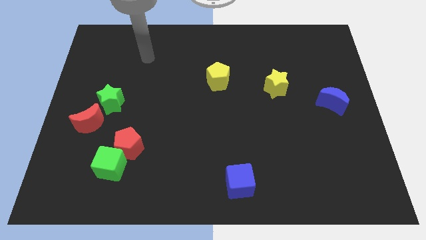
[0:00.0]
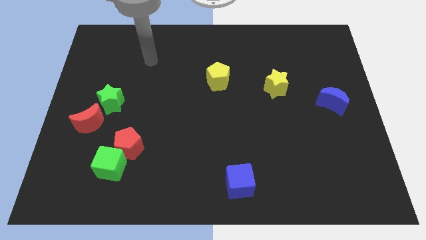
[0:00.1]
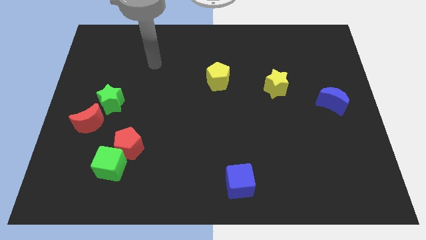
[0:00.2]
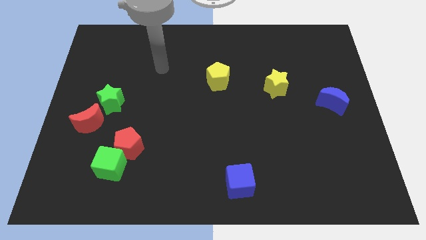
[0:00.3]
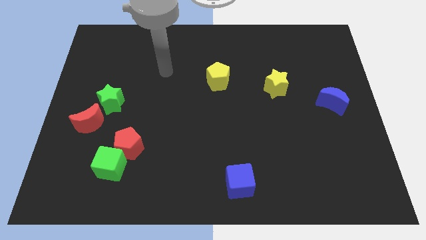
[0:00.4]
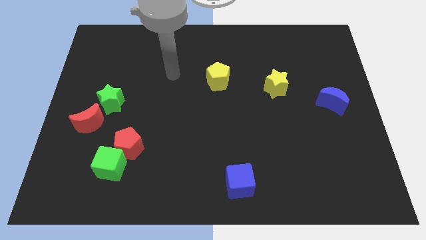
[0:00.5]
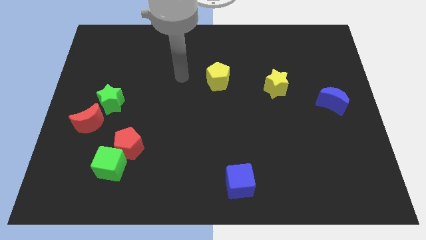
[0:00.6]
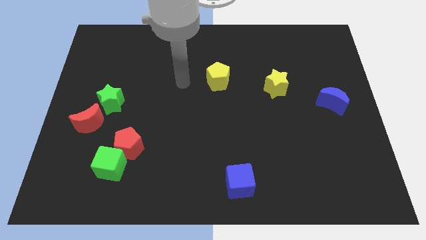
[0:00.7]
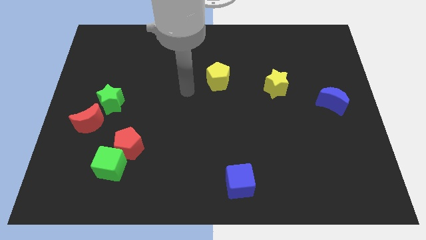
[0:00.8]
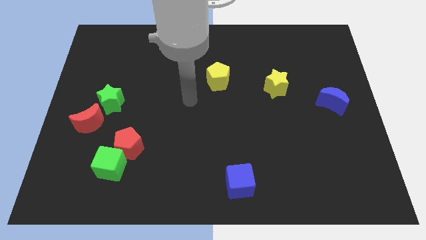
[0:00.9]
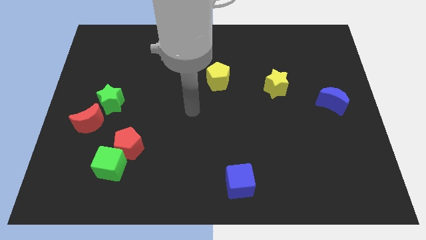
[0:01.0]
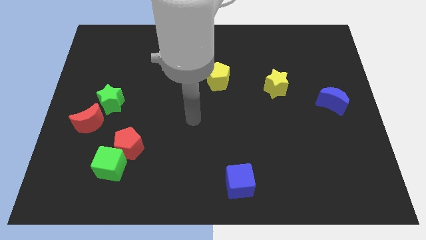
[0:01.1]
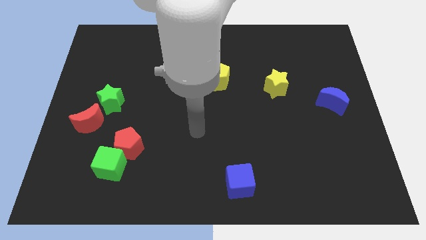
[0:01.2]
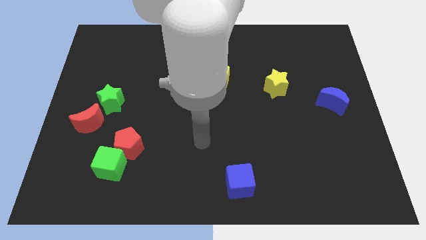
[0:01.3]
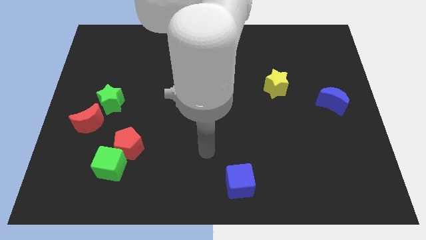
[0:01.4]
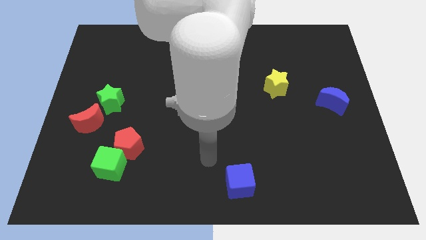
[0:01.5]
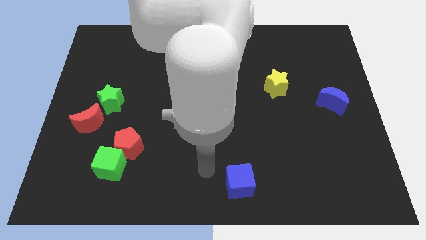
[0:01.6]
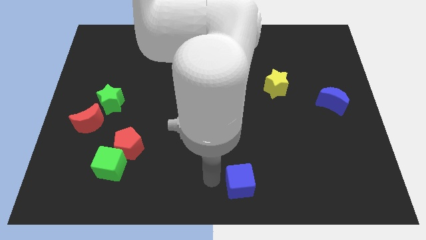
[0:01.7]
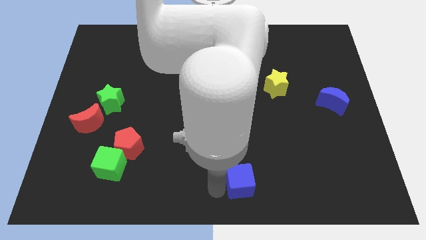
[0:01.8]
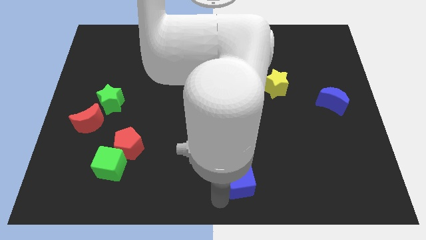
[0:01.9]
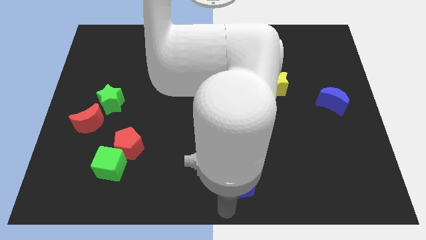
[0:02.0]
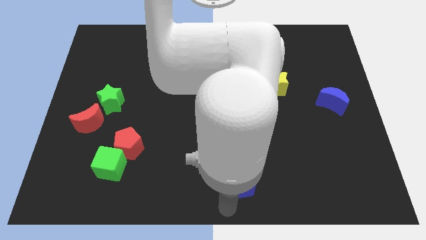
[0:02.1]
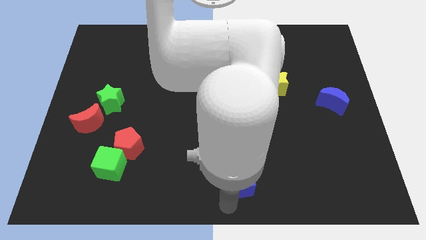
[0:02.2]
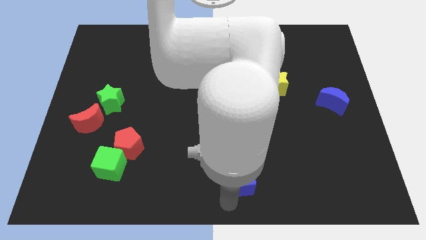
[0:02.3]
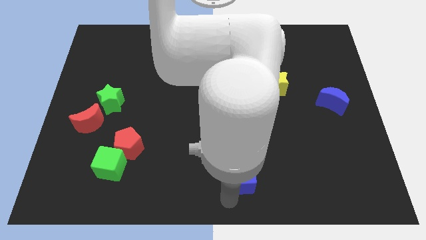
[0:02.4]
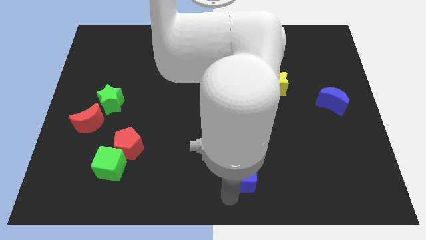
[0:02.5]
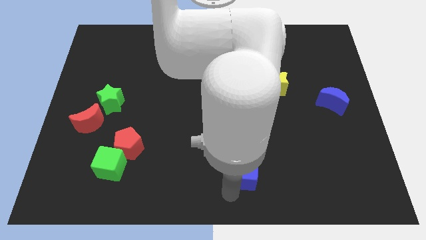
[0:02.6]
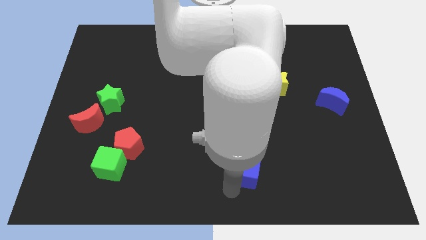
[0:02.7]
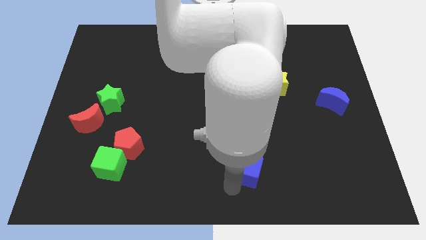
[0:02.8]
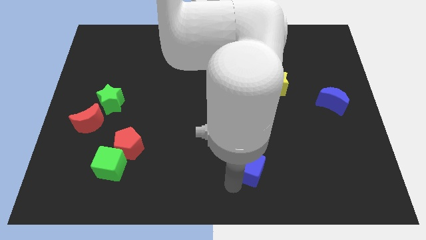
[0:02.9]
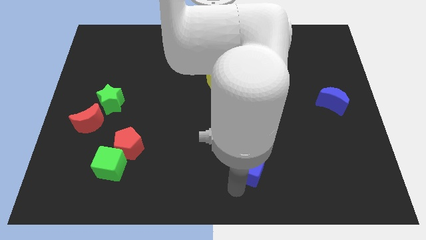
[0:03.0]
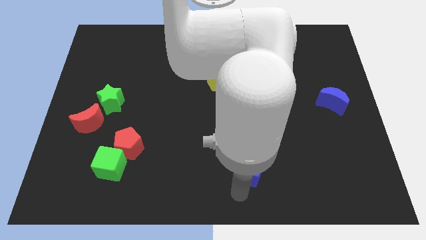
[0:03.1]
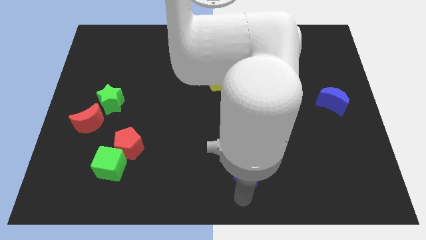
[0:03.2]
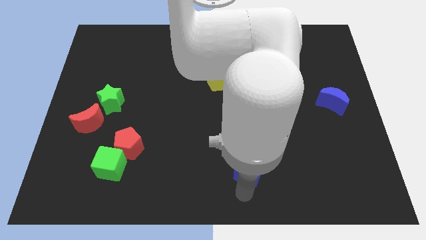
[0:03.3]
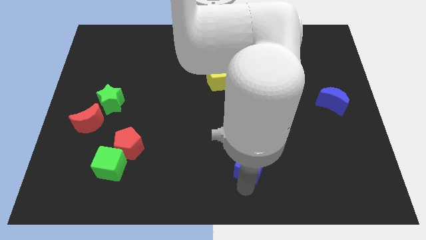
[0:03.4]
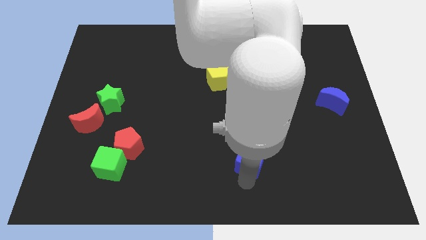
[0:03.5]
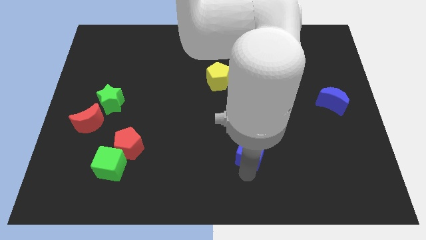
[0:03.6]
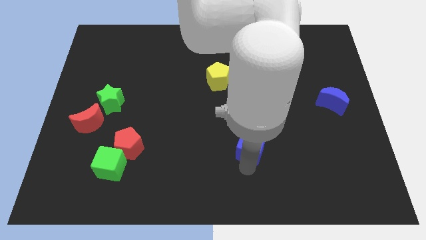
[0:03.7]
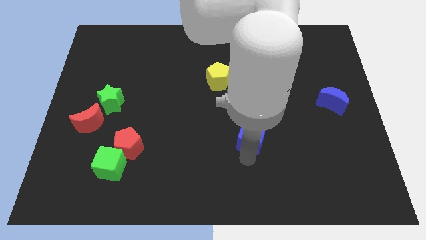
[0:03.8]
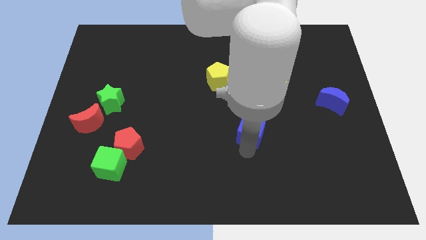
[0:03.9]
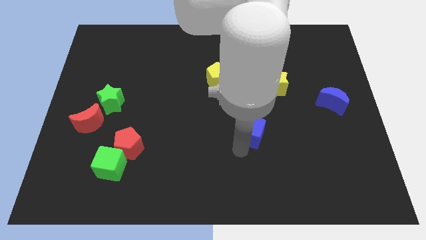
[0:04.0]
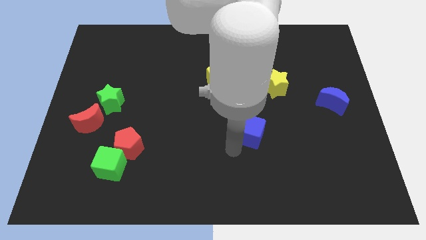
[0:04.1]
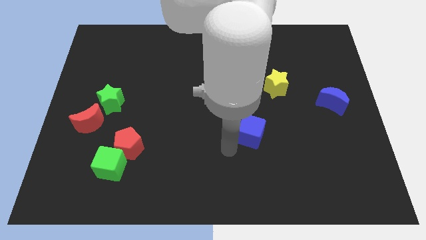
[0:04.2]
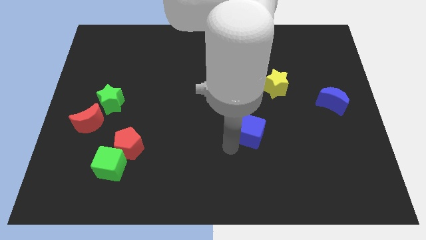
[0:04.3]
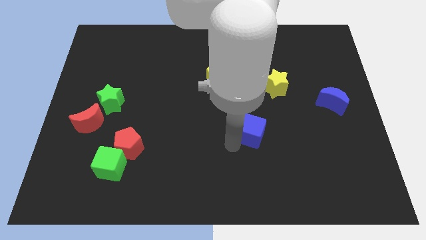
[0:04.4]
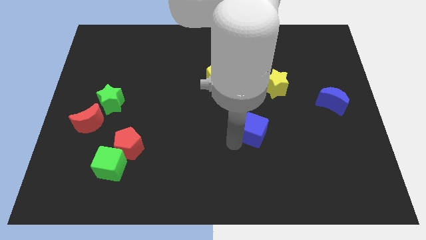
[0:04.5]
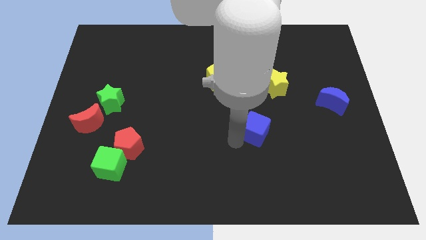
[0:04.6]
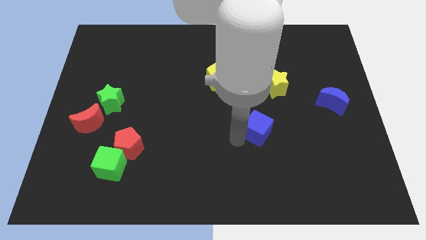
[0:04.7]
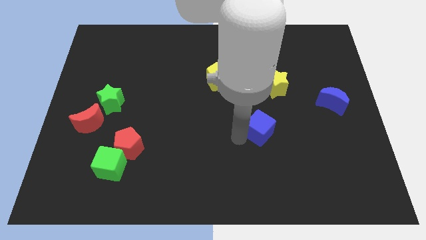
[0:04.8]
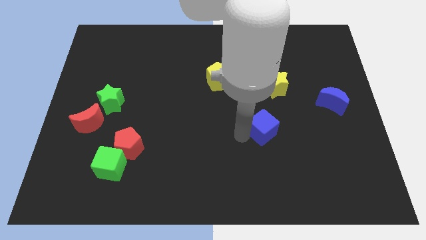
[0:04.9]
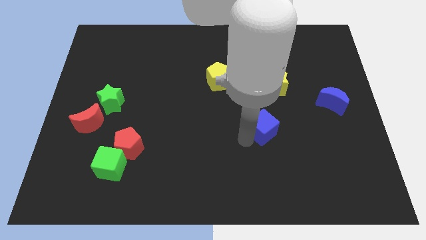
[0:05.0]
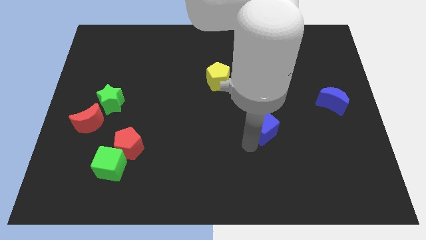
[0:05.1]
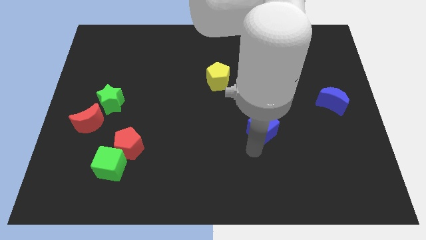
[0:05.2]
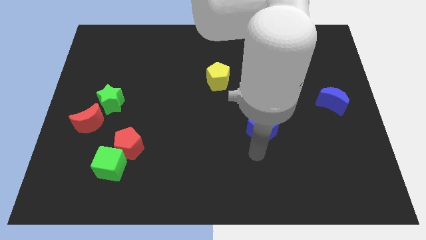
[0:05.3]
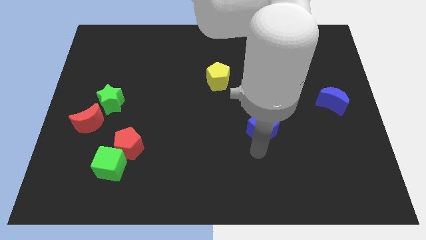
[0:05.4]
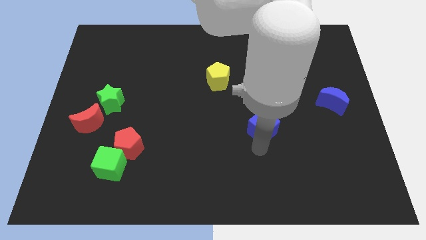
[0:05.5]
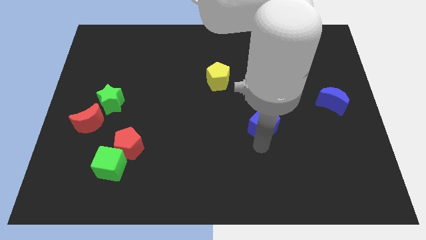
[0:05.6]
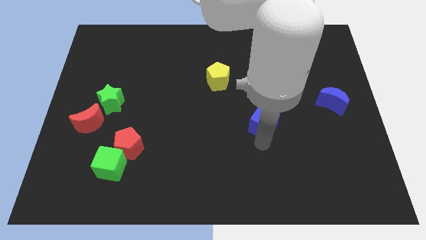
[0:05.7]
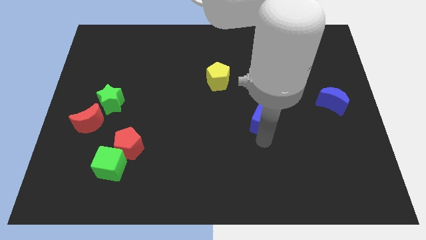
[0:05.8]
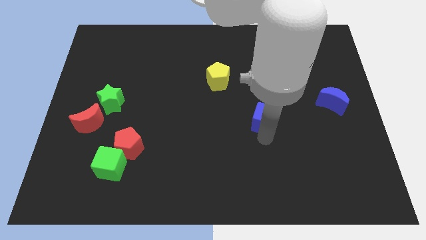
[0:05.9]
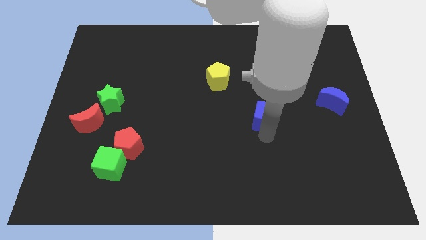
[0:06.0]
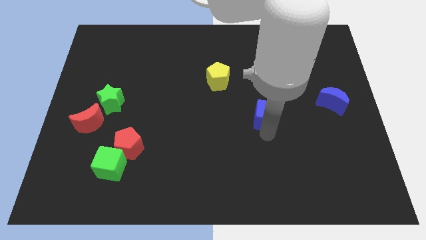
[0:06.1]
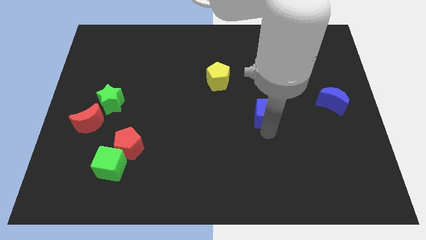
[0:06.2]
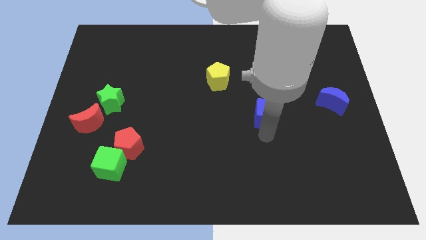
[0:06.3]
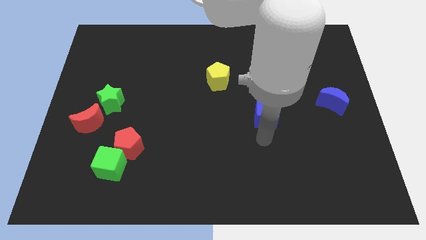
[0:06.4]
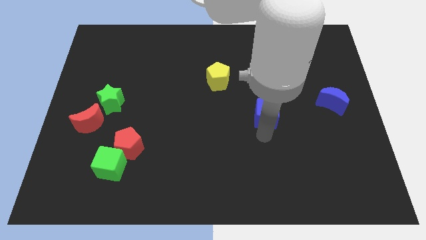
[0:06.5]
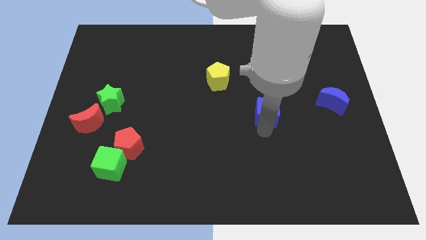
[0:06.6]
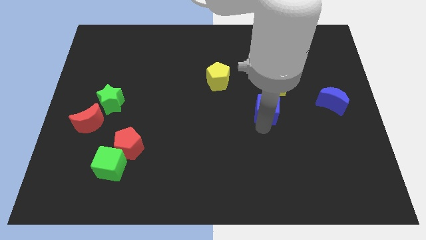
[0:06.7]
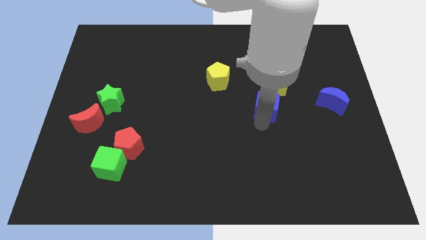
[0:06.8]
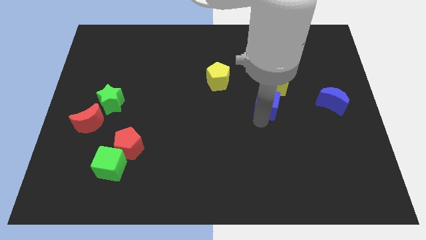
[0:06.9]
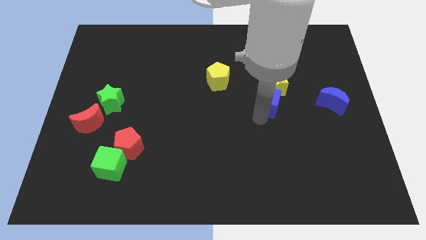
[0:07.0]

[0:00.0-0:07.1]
move the blue cube next to the yellow star
